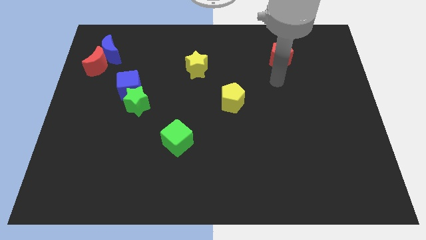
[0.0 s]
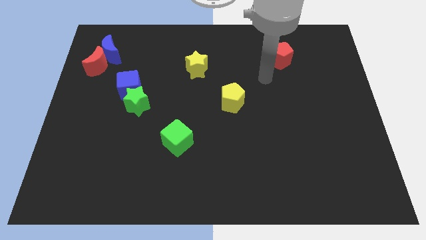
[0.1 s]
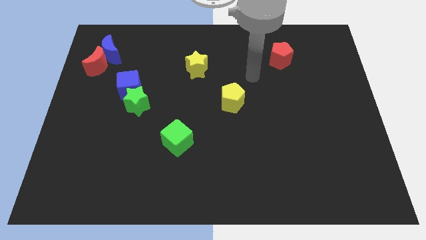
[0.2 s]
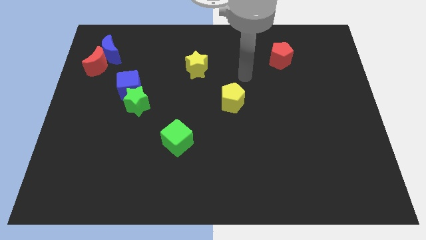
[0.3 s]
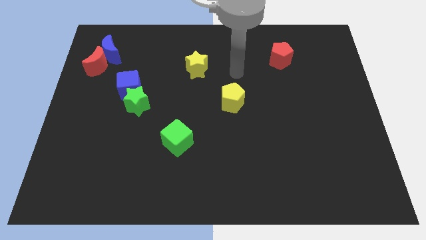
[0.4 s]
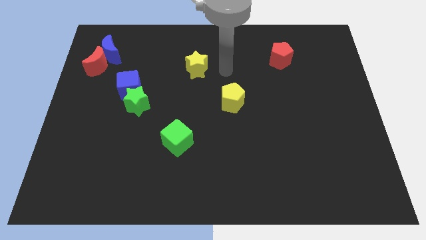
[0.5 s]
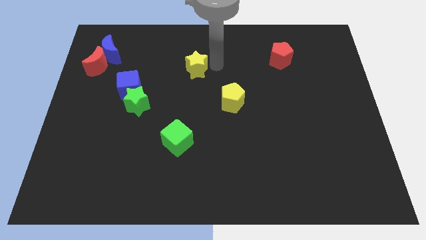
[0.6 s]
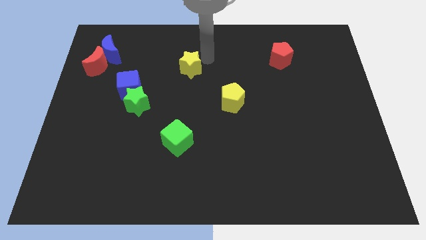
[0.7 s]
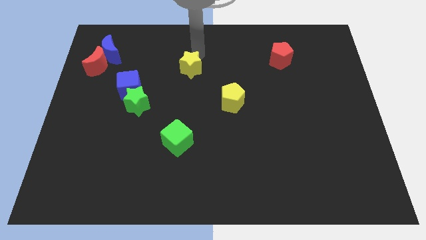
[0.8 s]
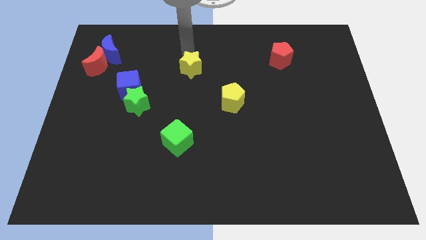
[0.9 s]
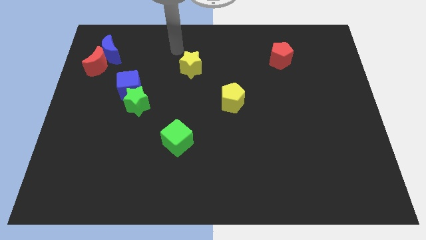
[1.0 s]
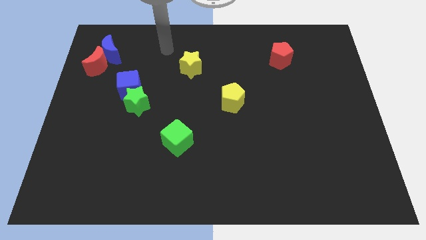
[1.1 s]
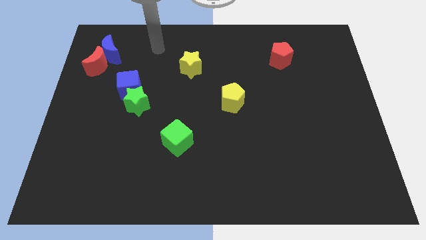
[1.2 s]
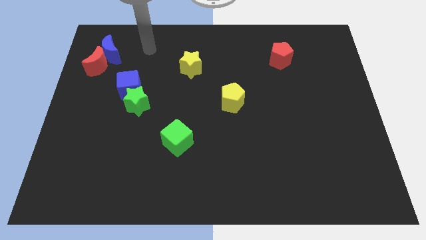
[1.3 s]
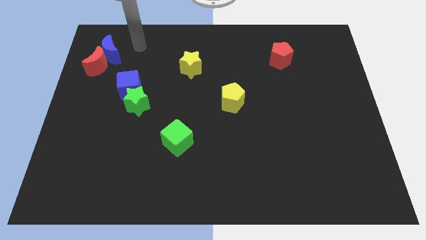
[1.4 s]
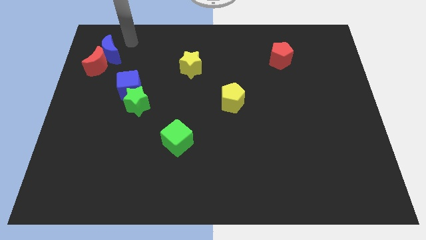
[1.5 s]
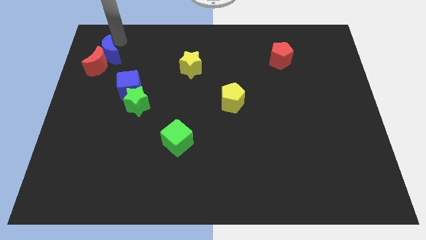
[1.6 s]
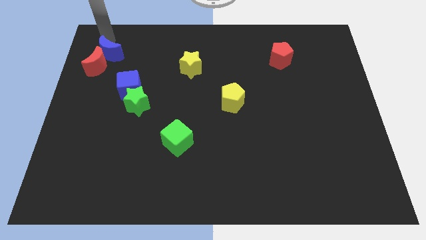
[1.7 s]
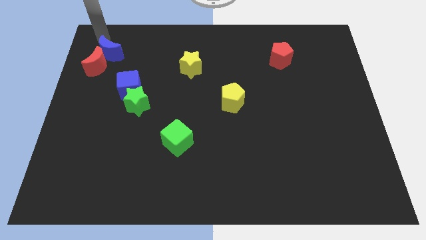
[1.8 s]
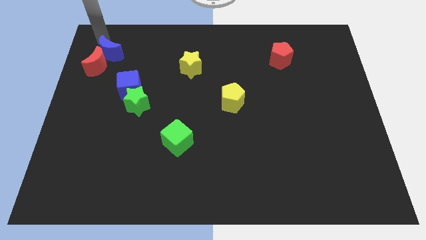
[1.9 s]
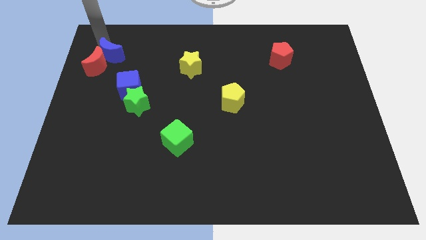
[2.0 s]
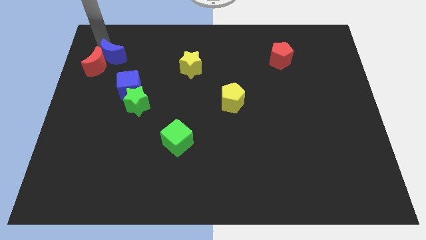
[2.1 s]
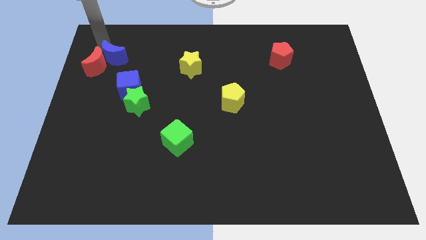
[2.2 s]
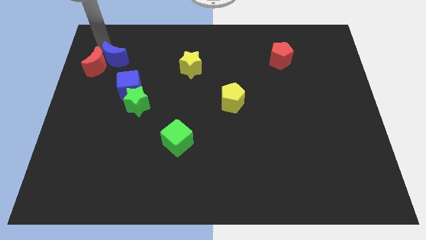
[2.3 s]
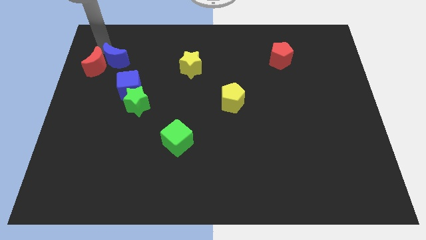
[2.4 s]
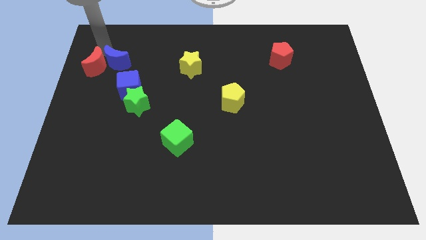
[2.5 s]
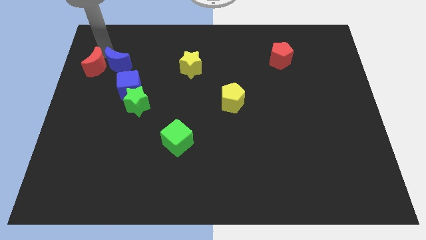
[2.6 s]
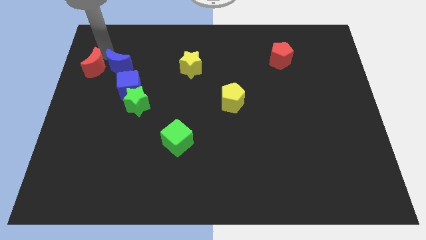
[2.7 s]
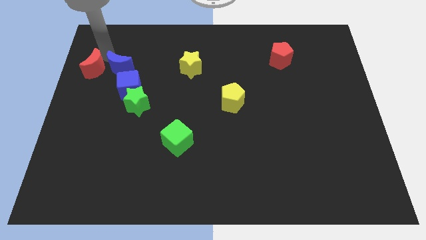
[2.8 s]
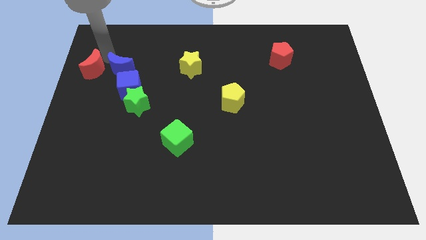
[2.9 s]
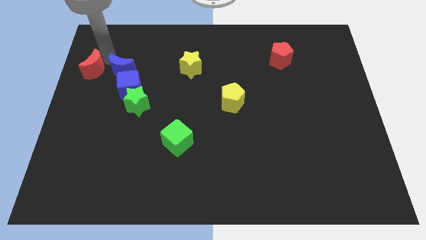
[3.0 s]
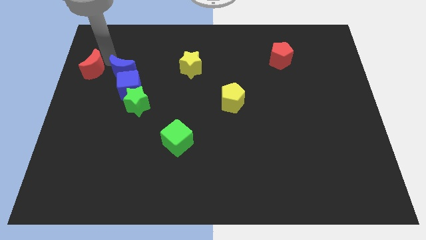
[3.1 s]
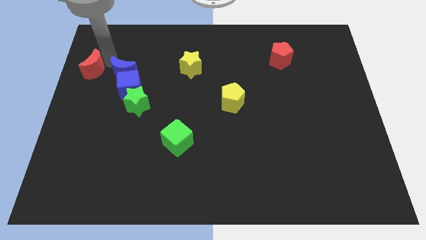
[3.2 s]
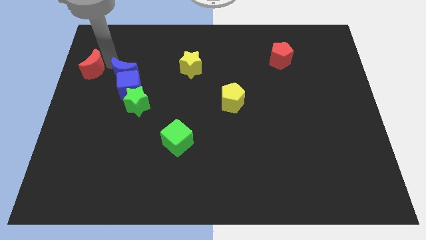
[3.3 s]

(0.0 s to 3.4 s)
slightly push the blue moon downwards

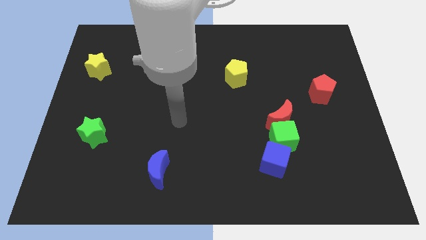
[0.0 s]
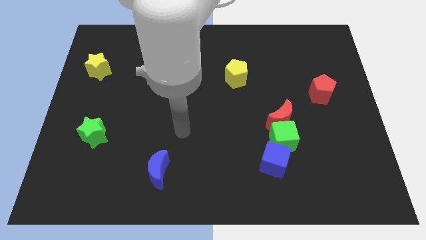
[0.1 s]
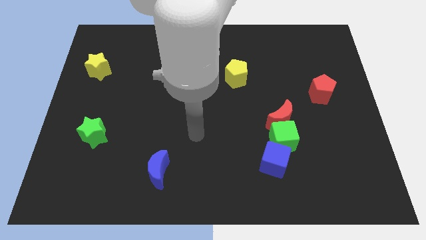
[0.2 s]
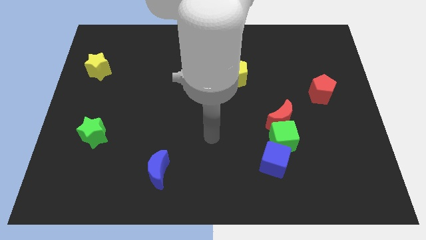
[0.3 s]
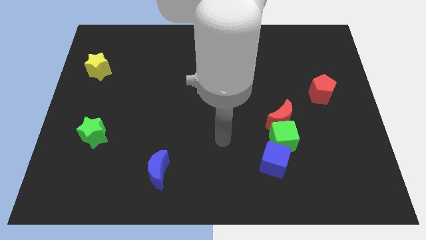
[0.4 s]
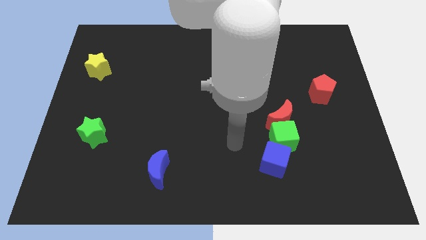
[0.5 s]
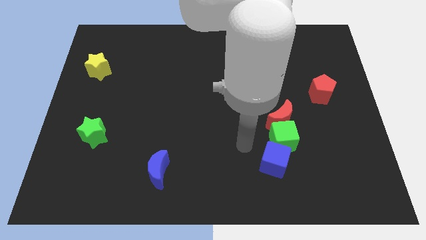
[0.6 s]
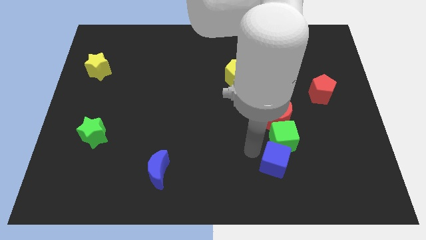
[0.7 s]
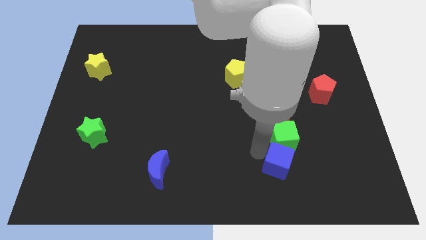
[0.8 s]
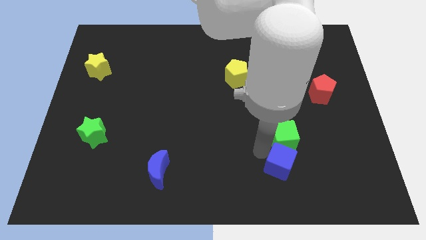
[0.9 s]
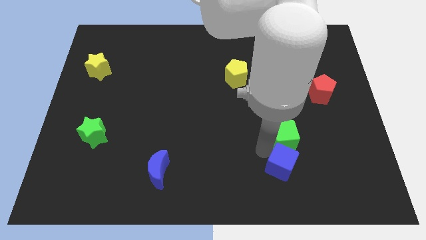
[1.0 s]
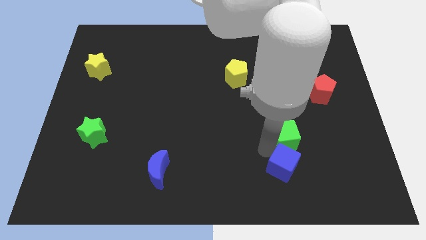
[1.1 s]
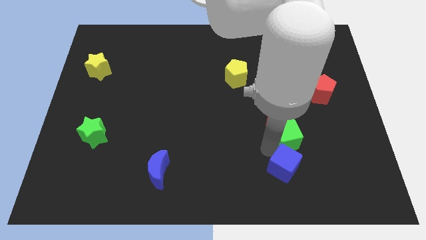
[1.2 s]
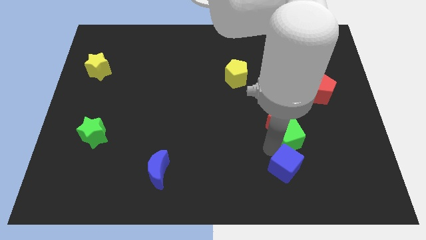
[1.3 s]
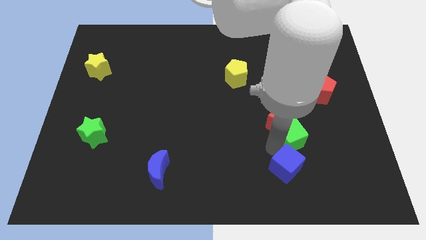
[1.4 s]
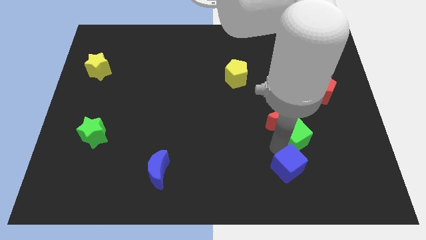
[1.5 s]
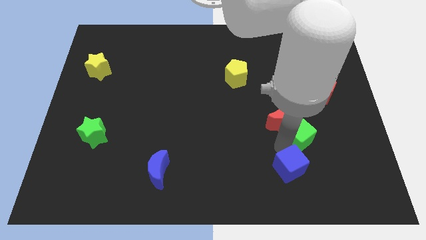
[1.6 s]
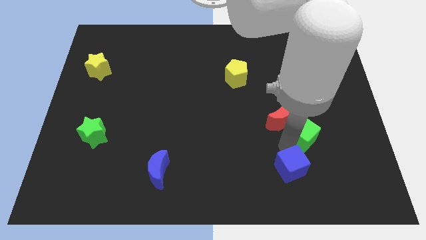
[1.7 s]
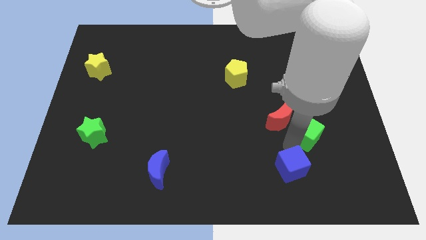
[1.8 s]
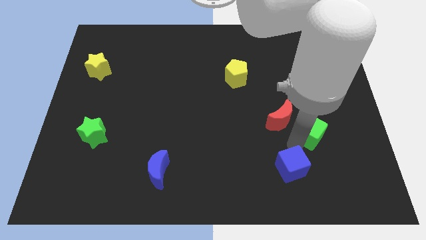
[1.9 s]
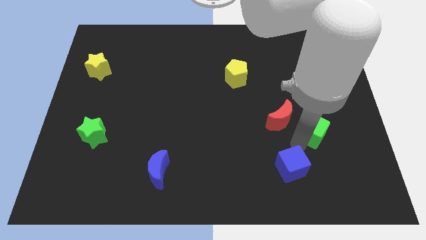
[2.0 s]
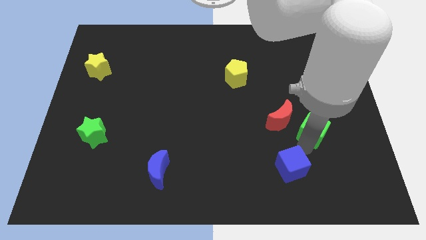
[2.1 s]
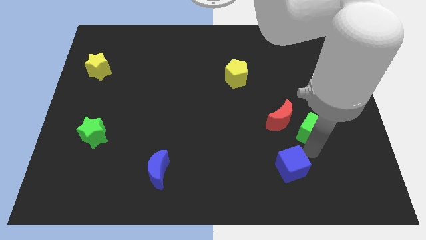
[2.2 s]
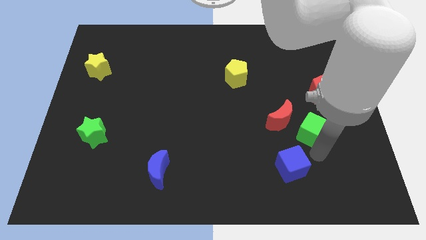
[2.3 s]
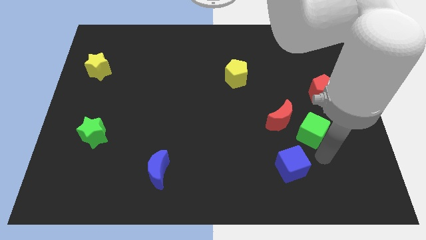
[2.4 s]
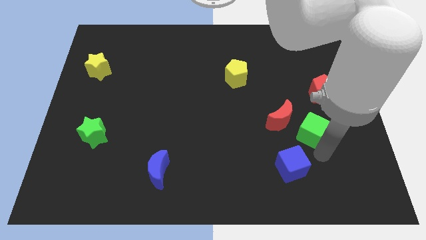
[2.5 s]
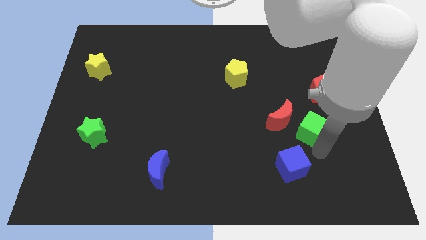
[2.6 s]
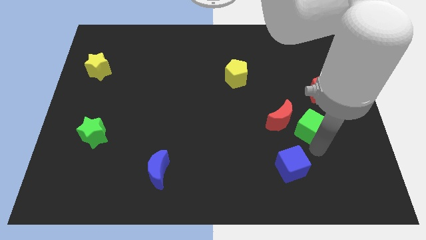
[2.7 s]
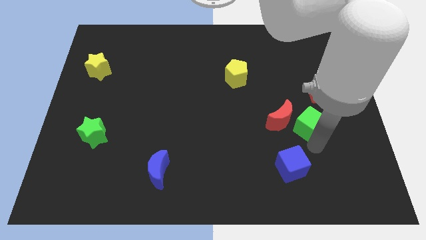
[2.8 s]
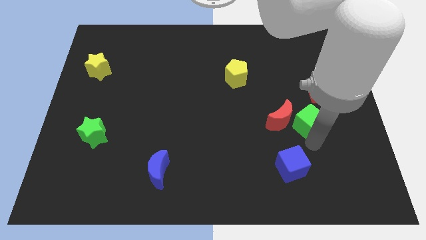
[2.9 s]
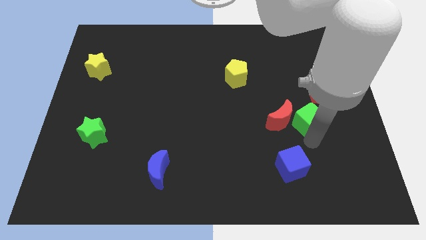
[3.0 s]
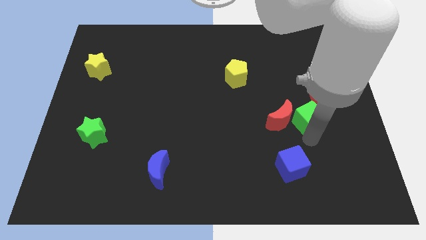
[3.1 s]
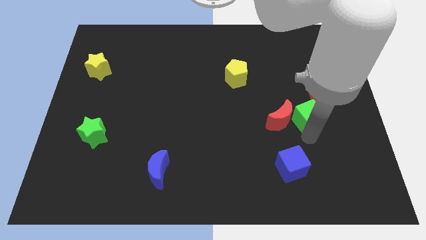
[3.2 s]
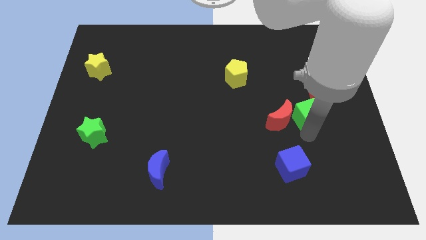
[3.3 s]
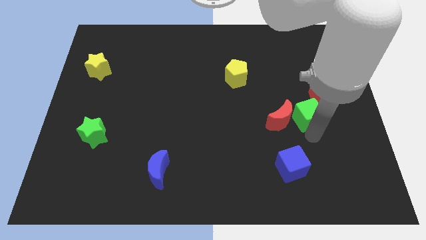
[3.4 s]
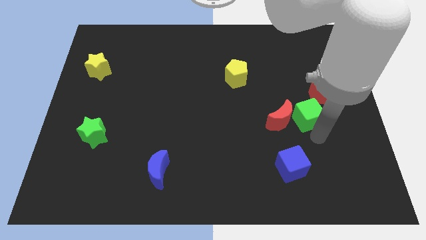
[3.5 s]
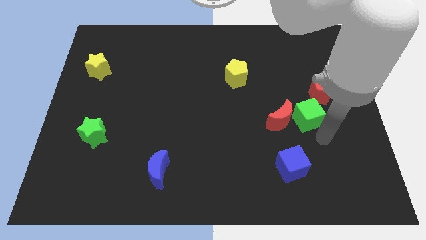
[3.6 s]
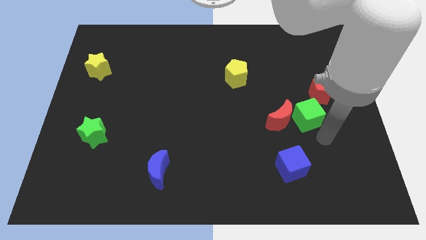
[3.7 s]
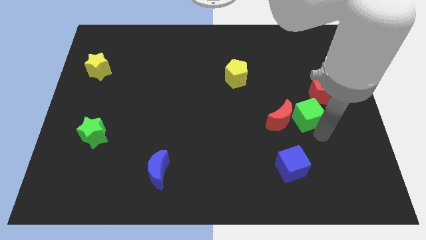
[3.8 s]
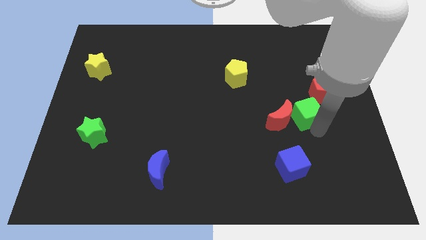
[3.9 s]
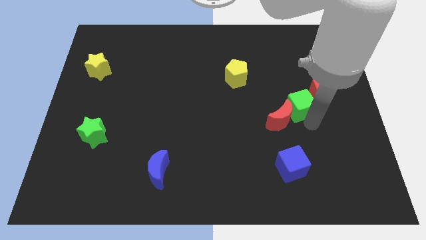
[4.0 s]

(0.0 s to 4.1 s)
slide the green cube a little up

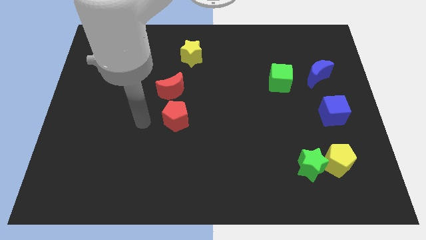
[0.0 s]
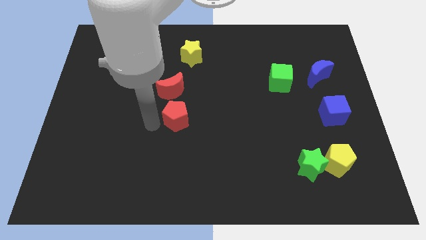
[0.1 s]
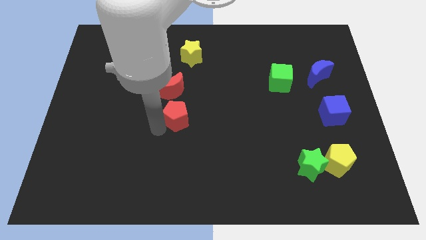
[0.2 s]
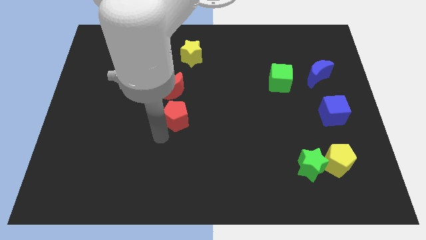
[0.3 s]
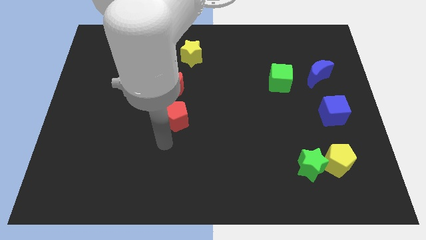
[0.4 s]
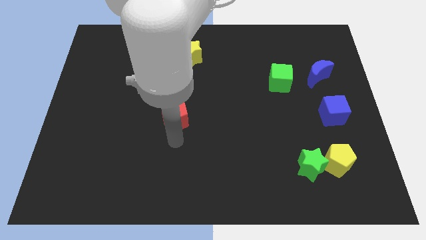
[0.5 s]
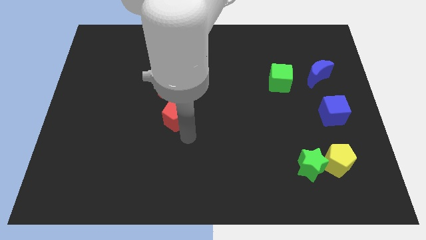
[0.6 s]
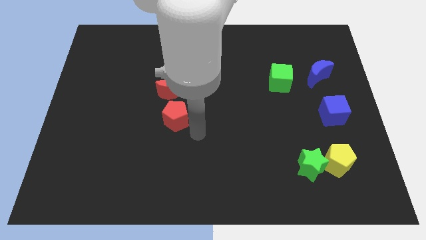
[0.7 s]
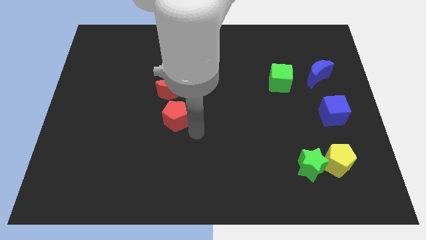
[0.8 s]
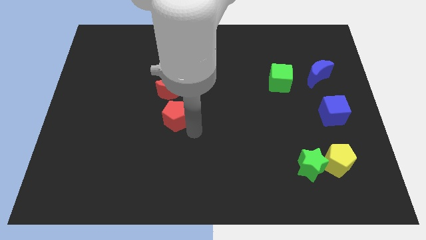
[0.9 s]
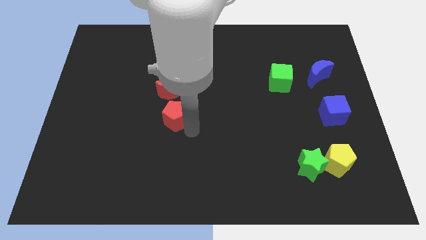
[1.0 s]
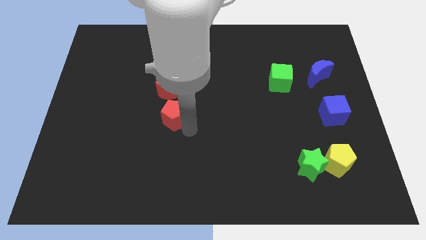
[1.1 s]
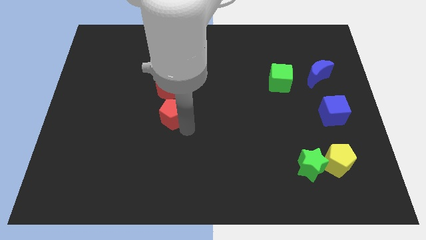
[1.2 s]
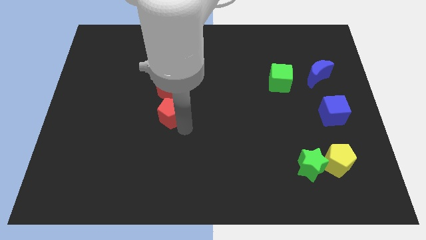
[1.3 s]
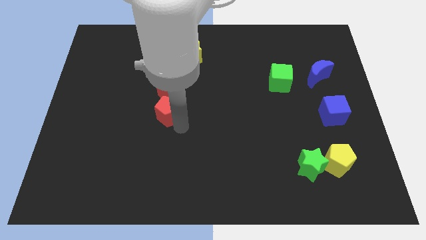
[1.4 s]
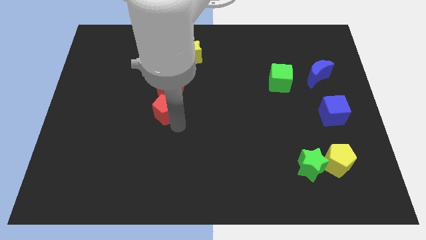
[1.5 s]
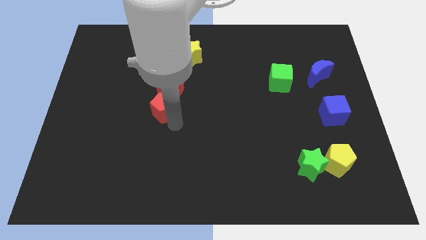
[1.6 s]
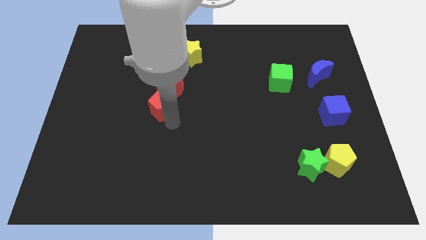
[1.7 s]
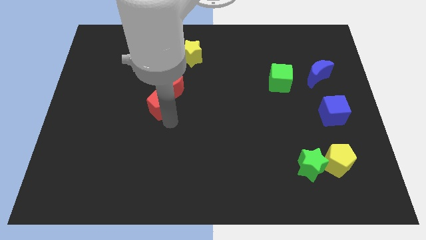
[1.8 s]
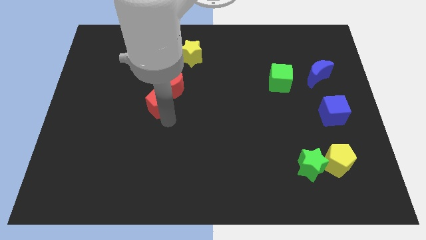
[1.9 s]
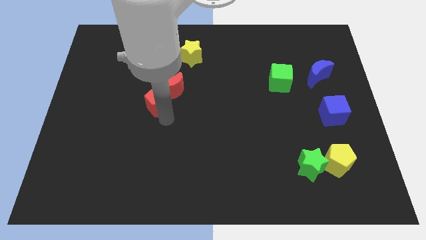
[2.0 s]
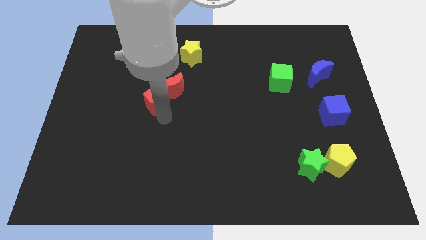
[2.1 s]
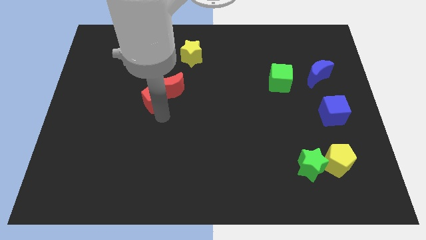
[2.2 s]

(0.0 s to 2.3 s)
slide the red pentagon upwards and to the left somewhat
